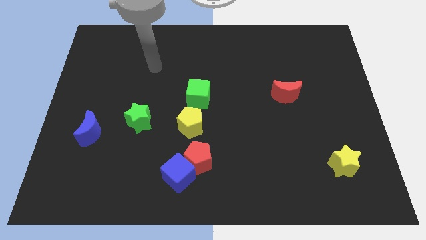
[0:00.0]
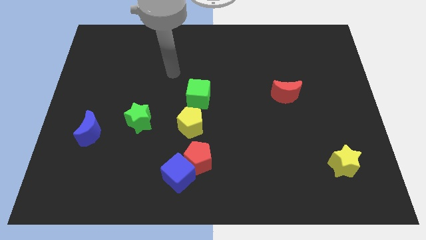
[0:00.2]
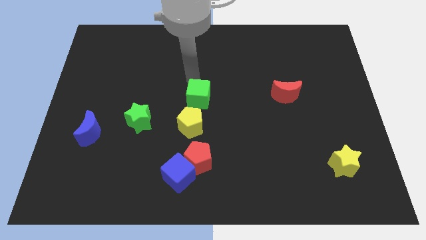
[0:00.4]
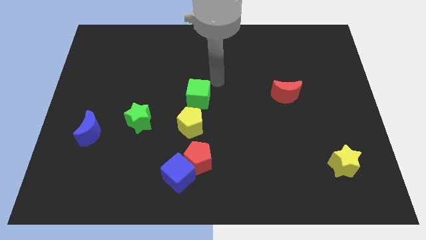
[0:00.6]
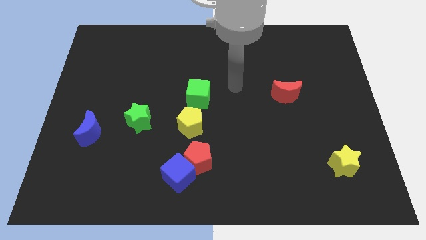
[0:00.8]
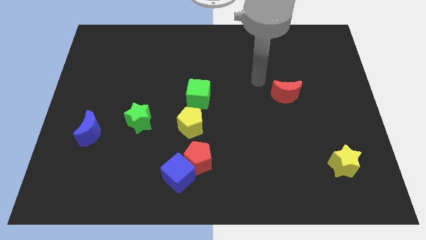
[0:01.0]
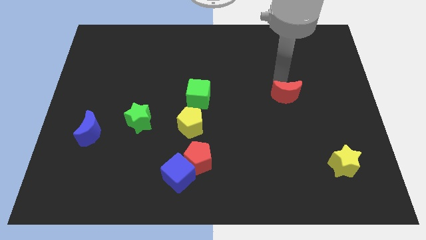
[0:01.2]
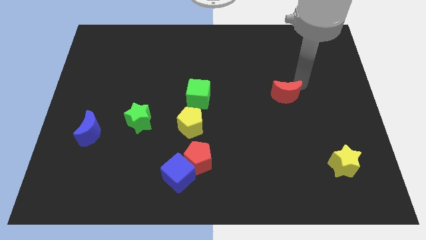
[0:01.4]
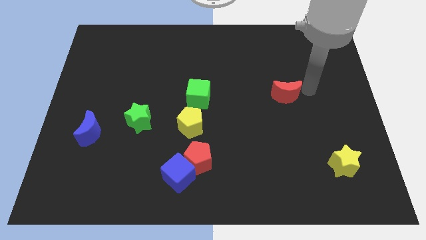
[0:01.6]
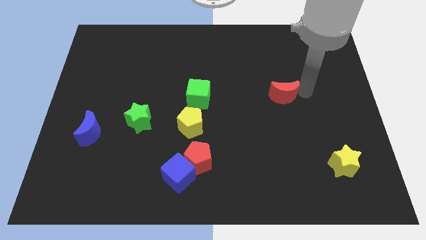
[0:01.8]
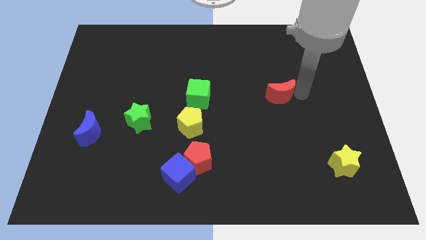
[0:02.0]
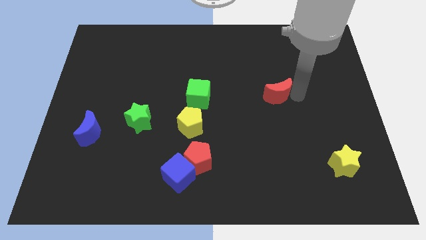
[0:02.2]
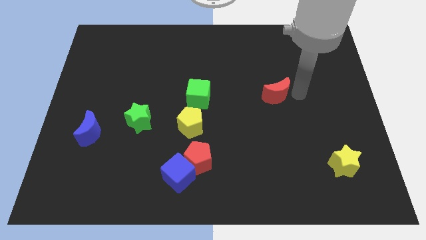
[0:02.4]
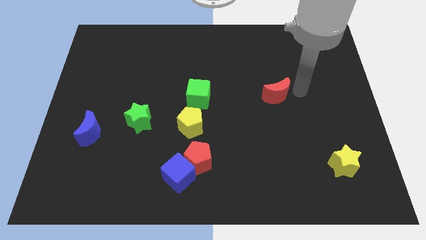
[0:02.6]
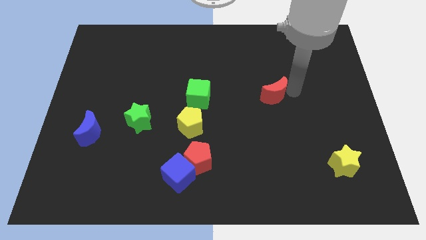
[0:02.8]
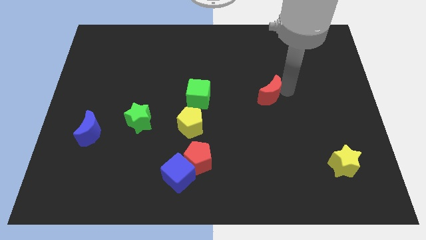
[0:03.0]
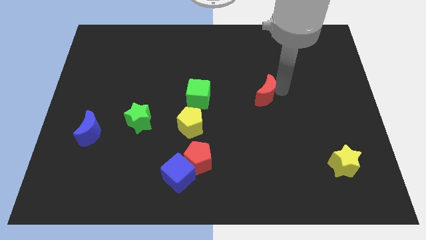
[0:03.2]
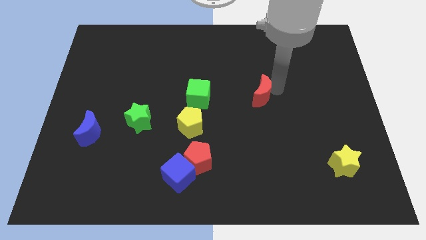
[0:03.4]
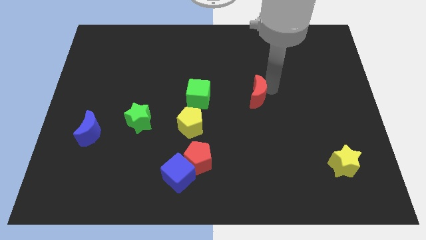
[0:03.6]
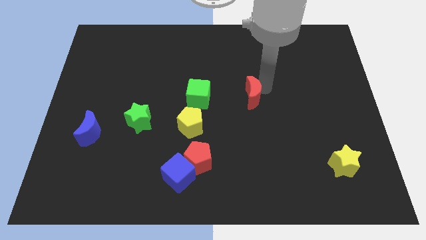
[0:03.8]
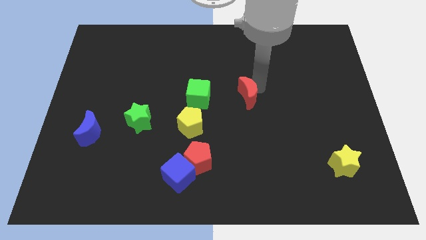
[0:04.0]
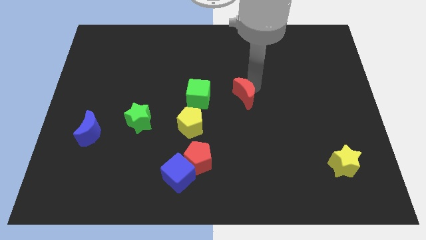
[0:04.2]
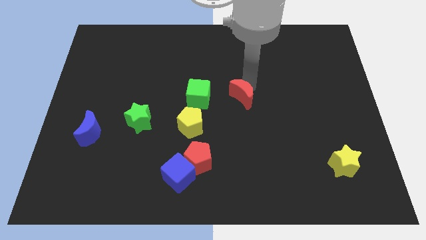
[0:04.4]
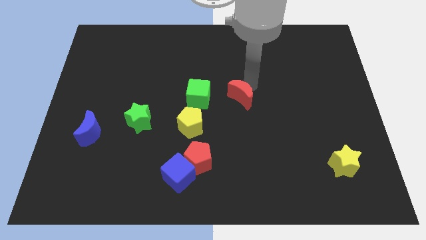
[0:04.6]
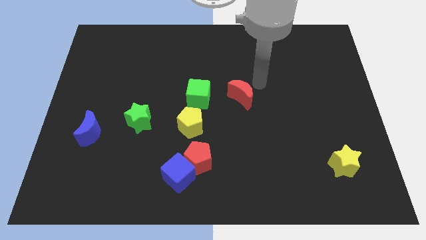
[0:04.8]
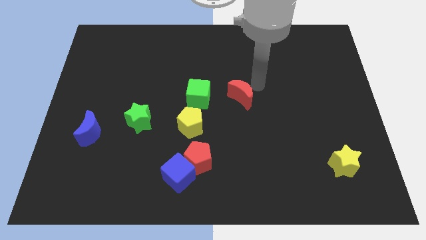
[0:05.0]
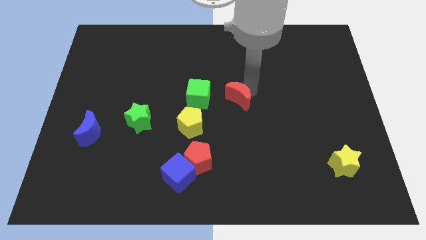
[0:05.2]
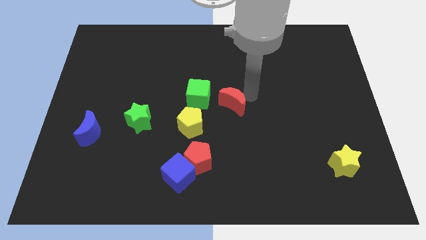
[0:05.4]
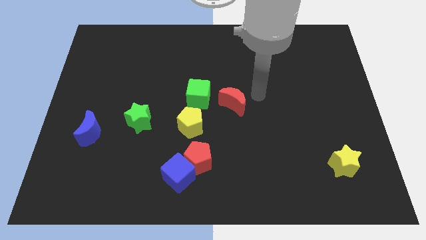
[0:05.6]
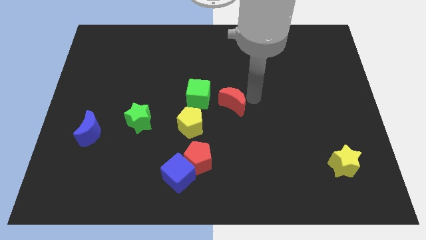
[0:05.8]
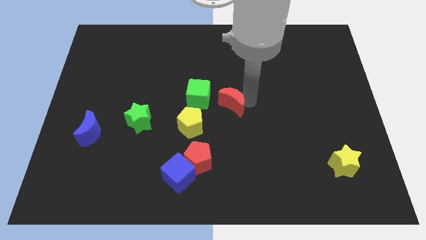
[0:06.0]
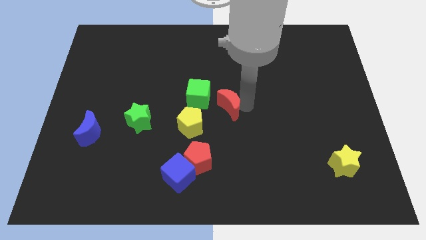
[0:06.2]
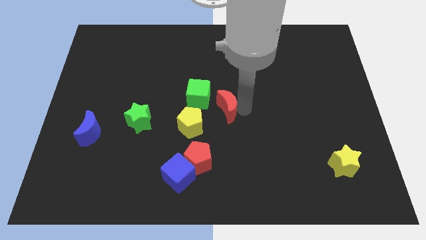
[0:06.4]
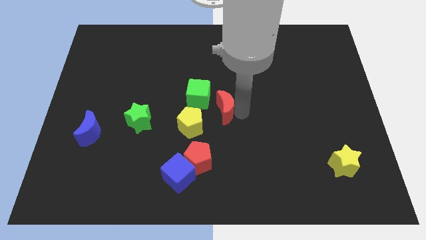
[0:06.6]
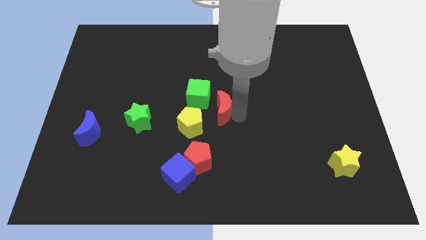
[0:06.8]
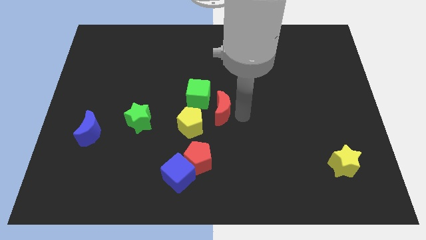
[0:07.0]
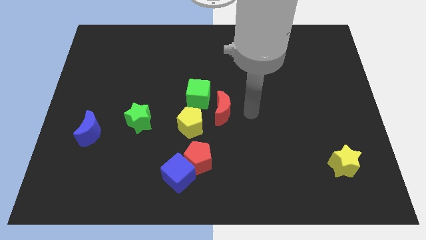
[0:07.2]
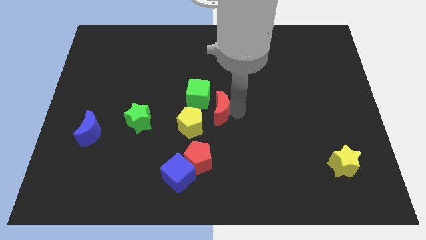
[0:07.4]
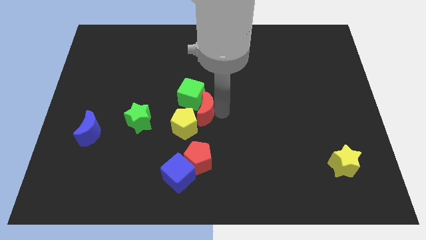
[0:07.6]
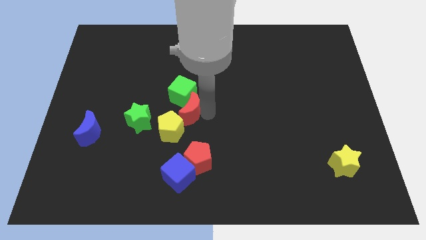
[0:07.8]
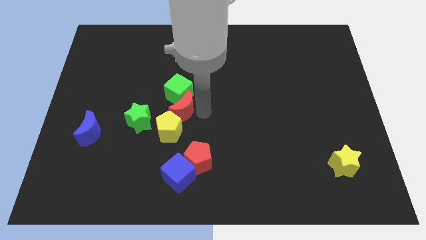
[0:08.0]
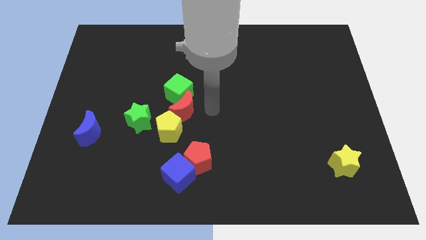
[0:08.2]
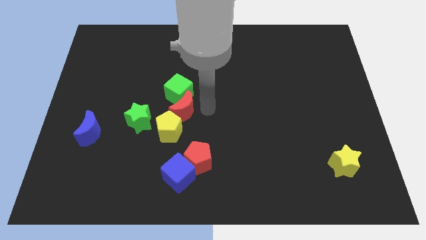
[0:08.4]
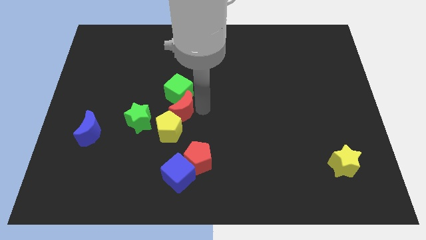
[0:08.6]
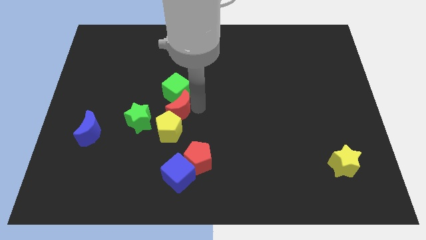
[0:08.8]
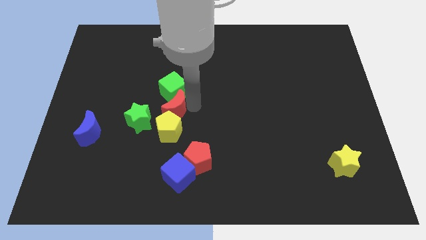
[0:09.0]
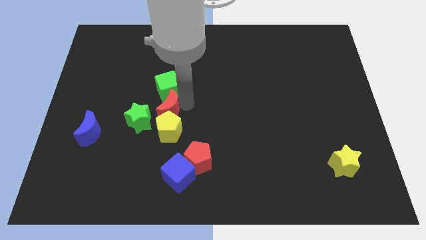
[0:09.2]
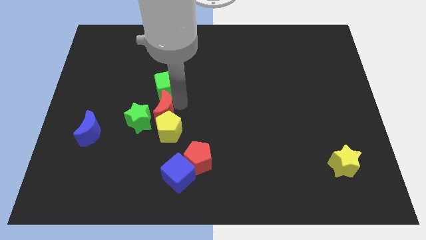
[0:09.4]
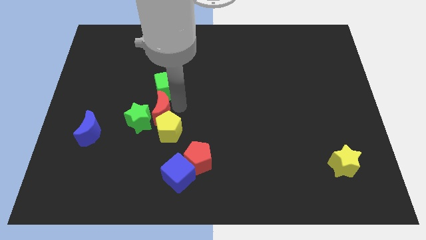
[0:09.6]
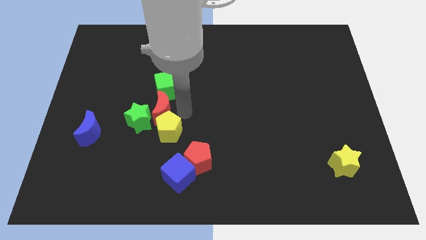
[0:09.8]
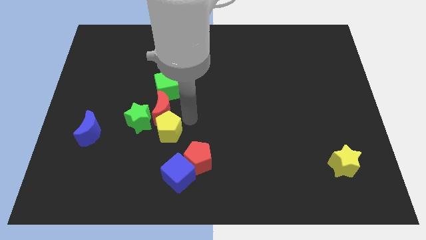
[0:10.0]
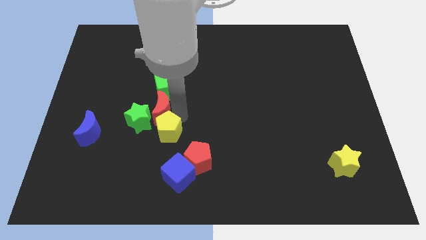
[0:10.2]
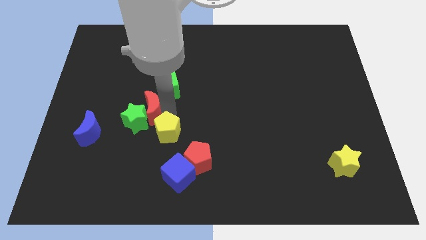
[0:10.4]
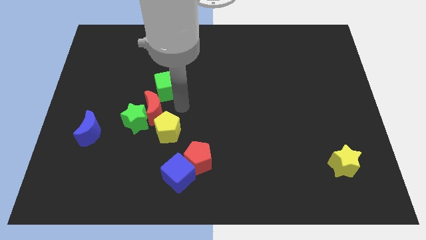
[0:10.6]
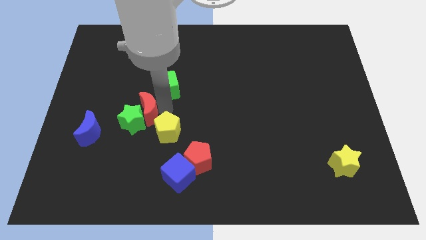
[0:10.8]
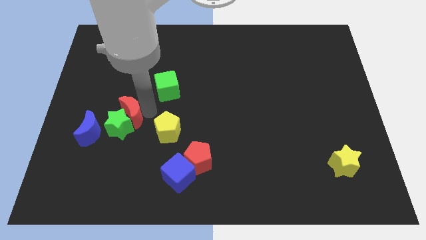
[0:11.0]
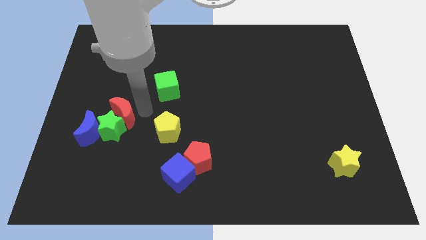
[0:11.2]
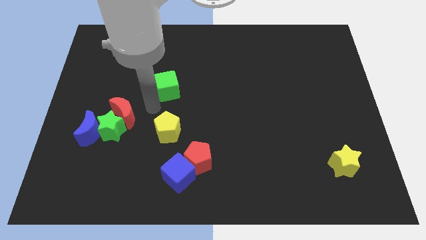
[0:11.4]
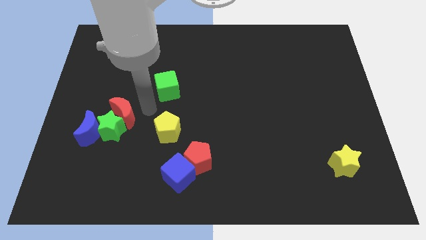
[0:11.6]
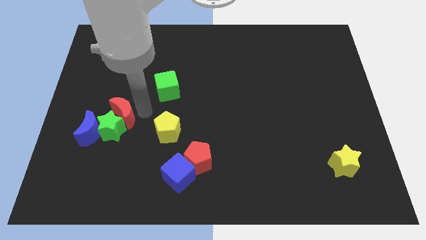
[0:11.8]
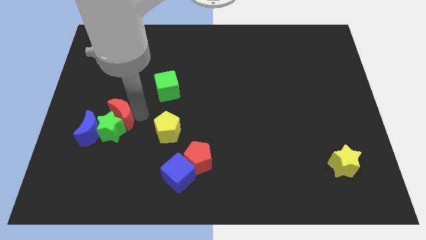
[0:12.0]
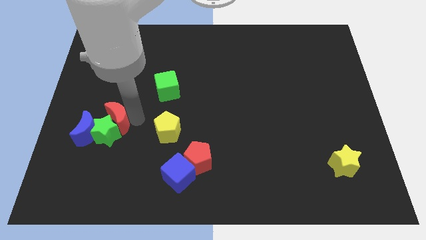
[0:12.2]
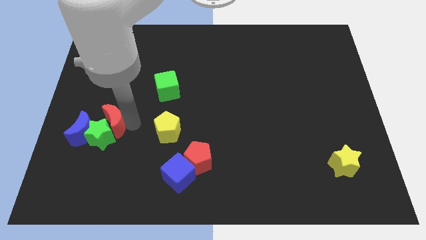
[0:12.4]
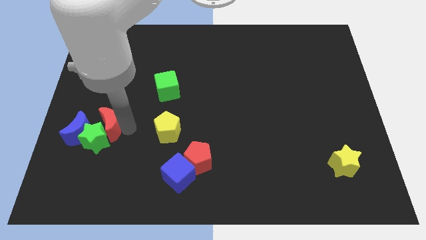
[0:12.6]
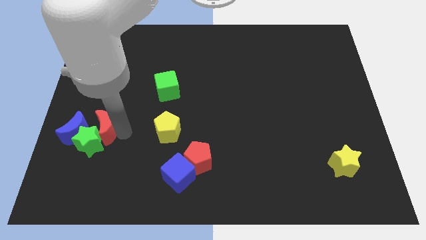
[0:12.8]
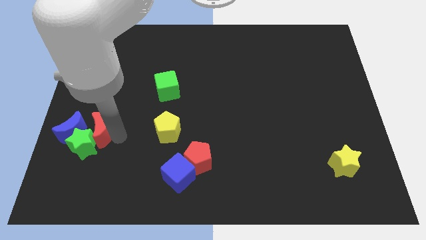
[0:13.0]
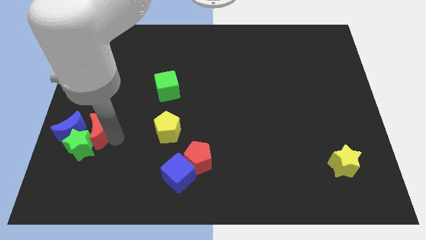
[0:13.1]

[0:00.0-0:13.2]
put the red moon next to the blue moon

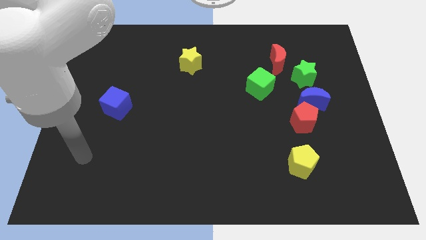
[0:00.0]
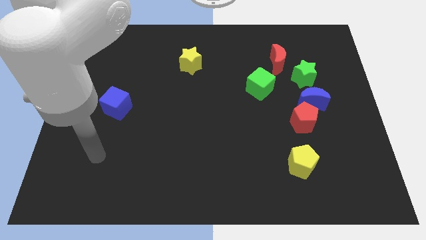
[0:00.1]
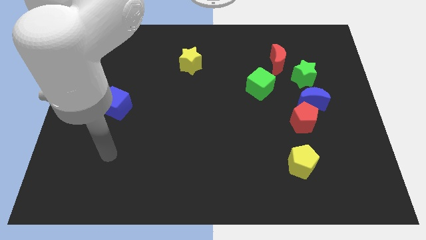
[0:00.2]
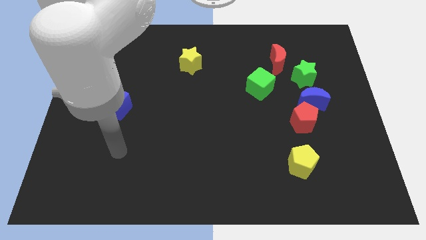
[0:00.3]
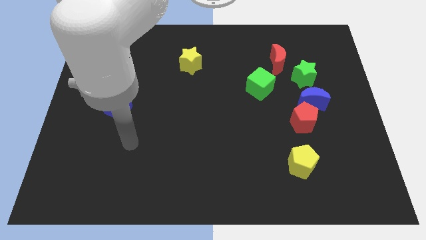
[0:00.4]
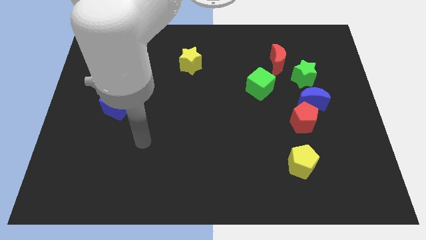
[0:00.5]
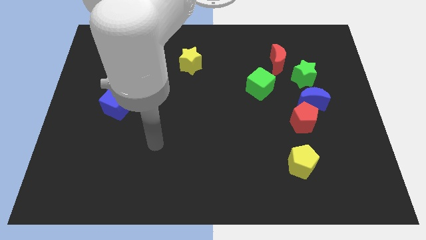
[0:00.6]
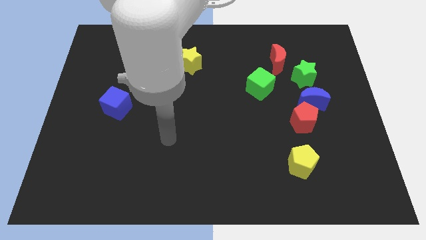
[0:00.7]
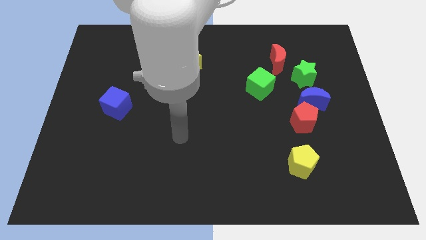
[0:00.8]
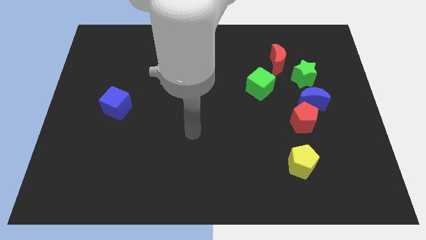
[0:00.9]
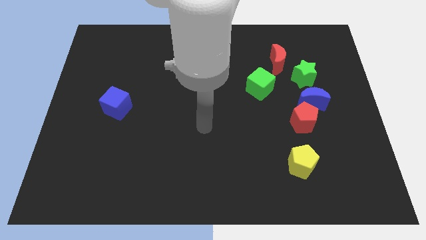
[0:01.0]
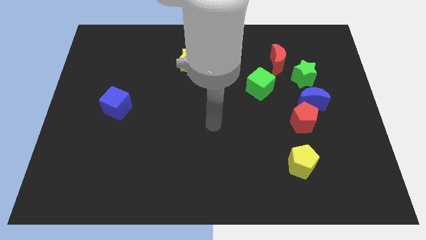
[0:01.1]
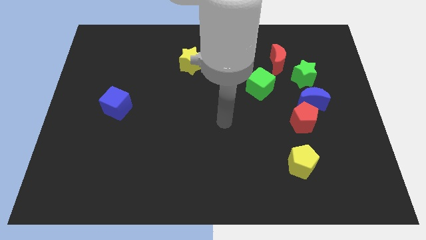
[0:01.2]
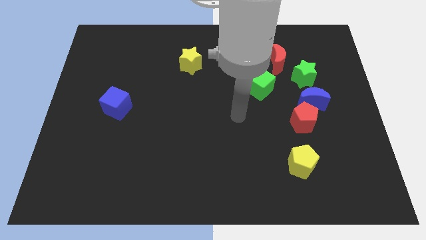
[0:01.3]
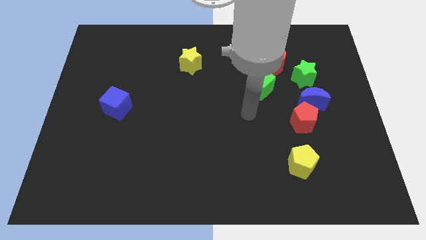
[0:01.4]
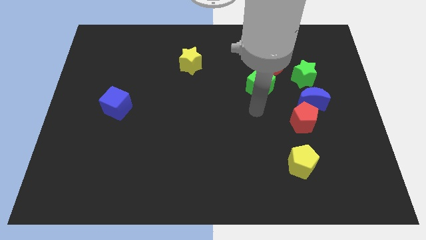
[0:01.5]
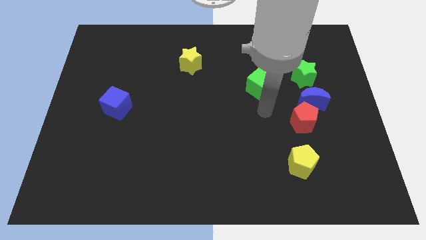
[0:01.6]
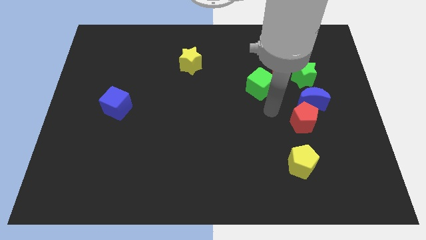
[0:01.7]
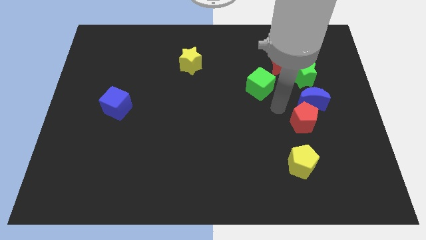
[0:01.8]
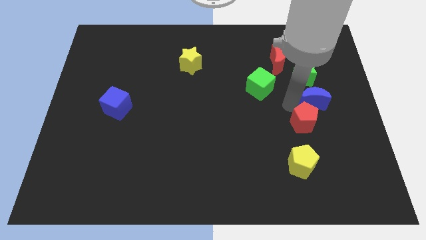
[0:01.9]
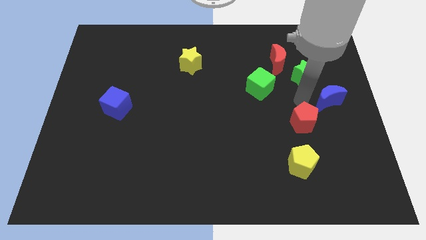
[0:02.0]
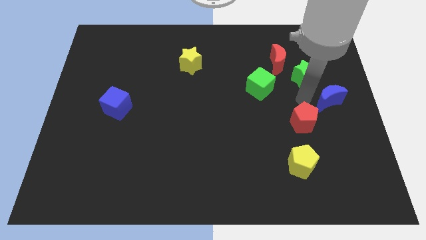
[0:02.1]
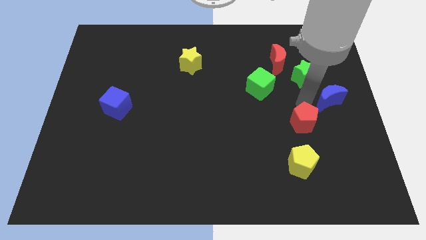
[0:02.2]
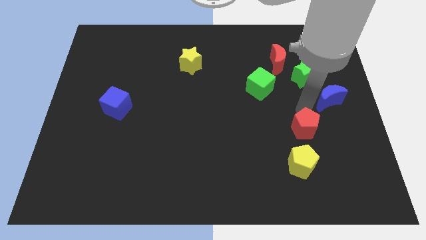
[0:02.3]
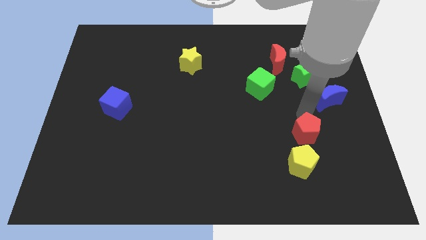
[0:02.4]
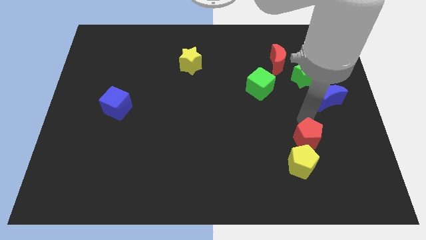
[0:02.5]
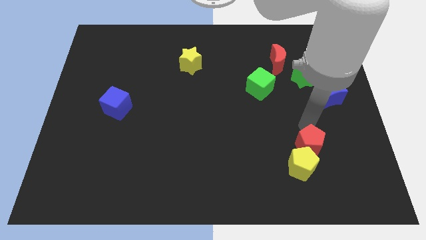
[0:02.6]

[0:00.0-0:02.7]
push the red pentagon close to the yellow pentagon
